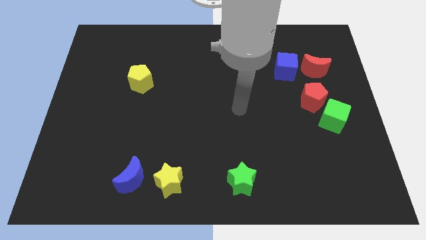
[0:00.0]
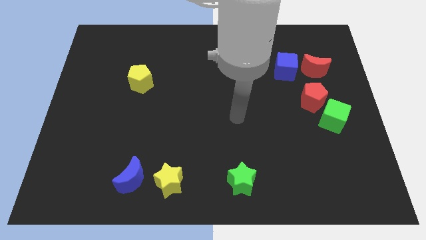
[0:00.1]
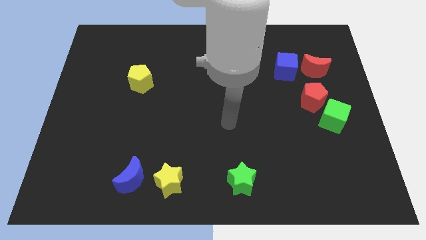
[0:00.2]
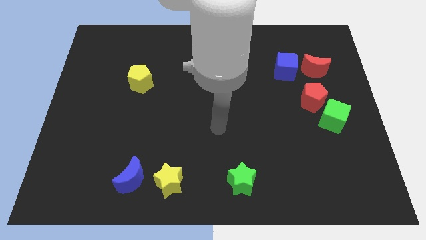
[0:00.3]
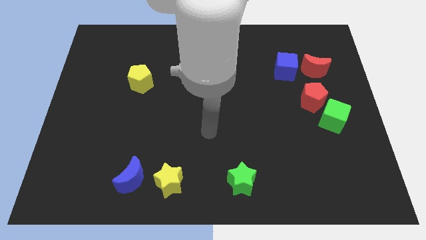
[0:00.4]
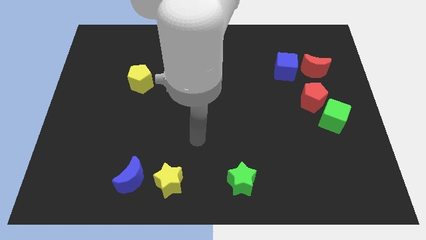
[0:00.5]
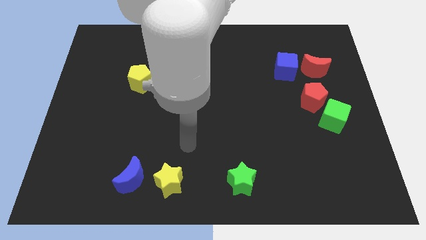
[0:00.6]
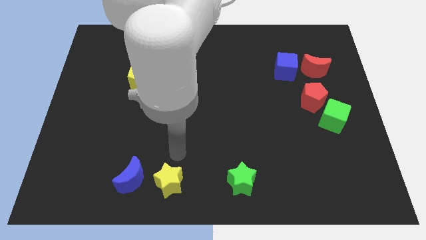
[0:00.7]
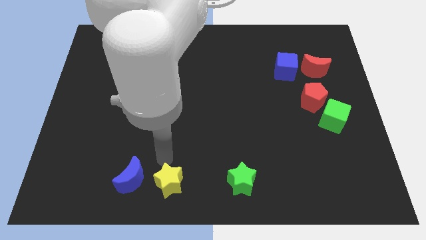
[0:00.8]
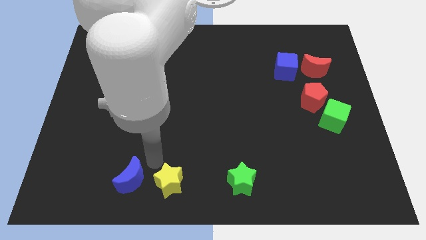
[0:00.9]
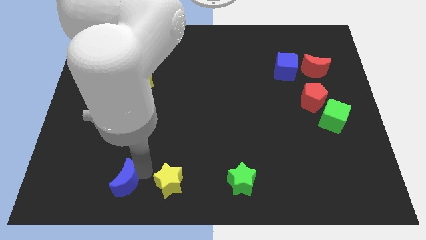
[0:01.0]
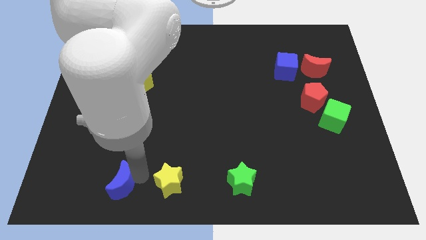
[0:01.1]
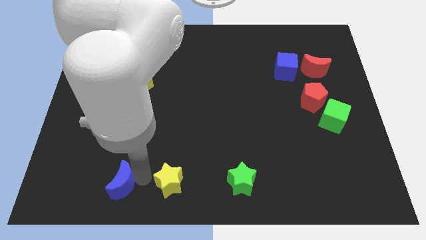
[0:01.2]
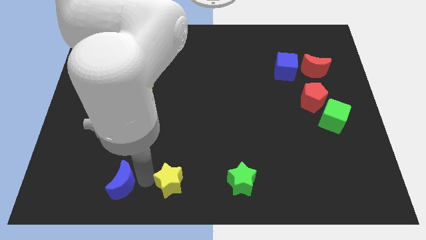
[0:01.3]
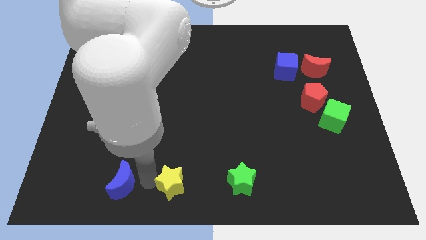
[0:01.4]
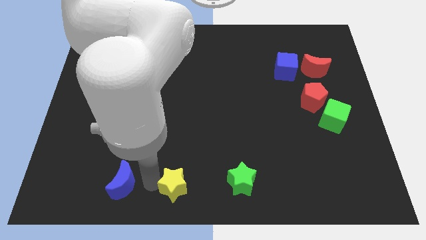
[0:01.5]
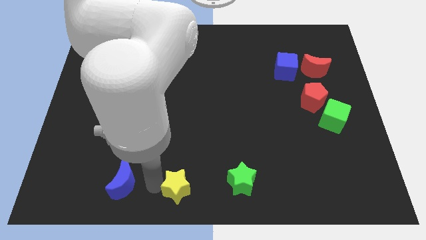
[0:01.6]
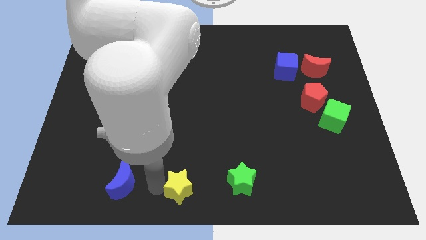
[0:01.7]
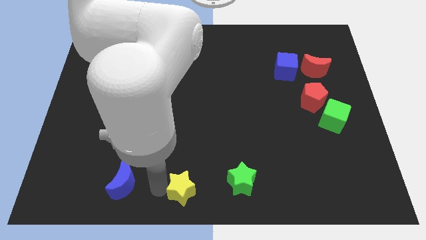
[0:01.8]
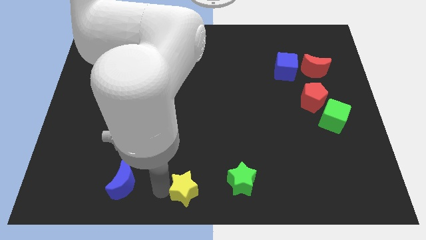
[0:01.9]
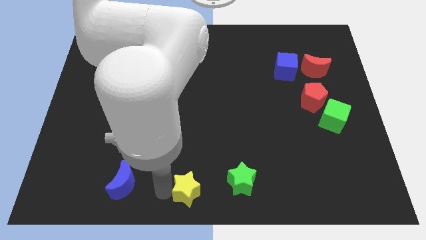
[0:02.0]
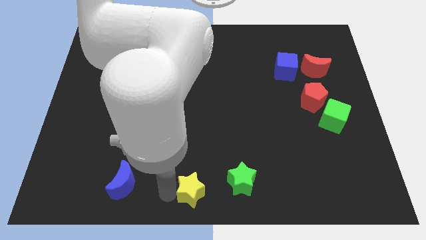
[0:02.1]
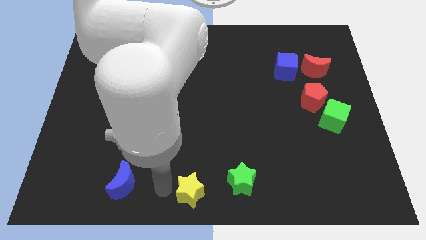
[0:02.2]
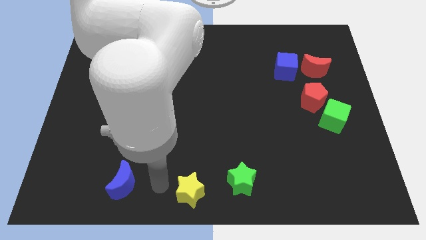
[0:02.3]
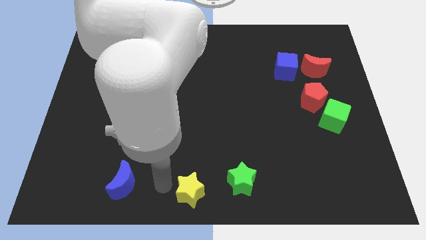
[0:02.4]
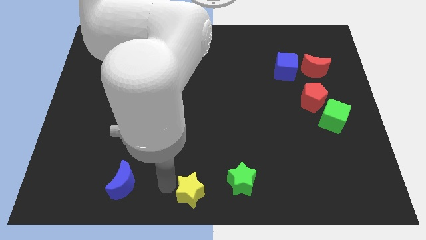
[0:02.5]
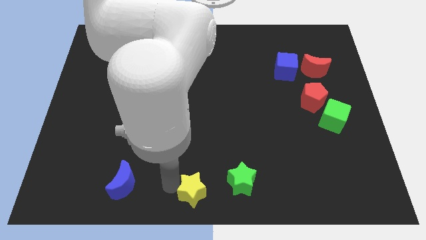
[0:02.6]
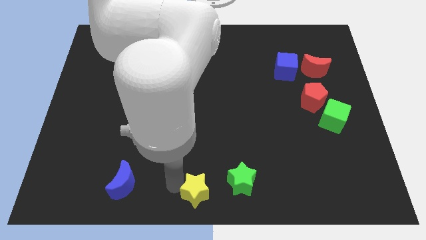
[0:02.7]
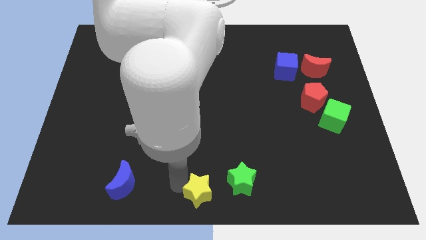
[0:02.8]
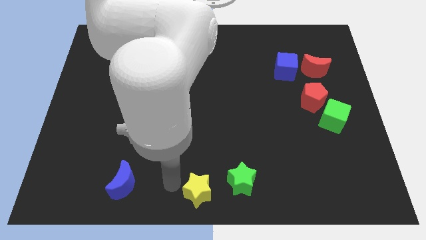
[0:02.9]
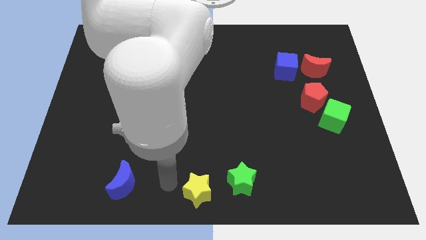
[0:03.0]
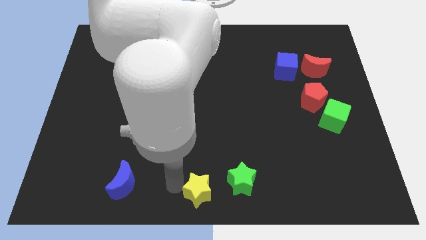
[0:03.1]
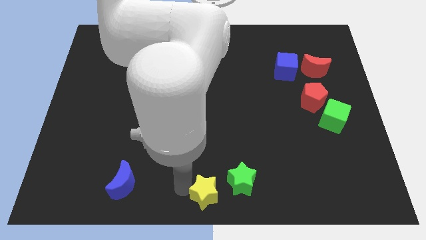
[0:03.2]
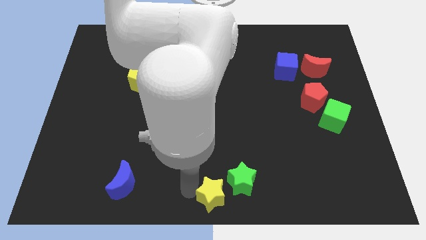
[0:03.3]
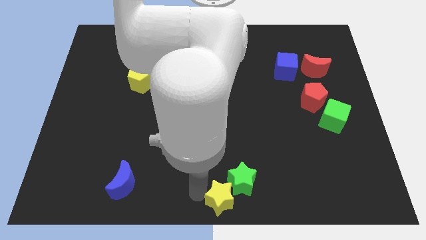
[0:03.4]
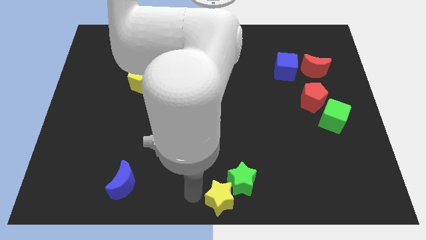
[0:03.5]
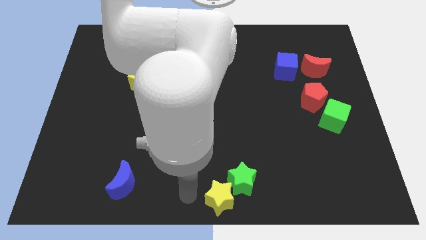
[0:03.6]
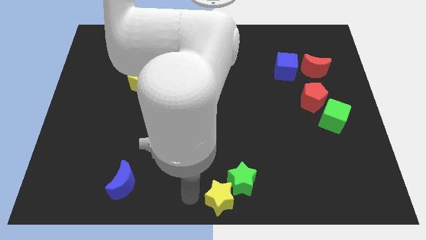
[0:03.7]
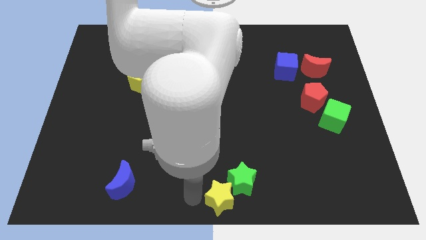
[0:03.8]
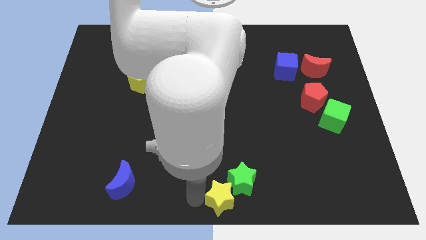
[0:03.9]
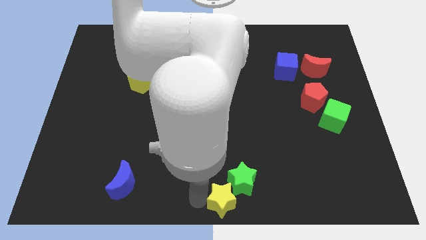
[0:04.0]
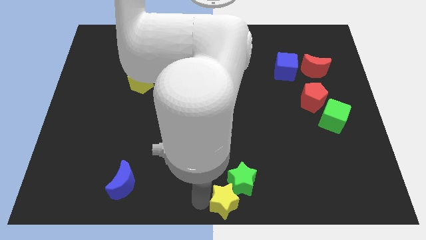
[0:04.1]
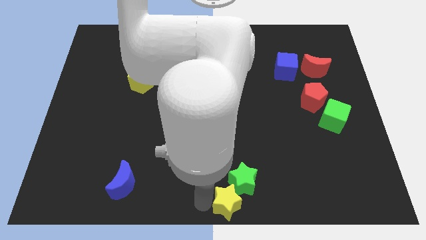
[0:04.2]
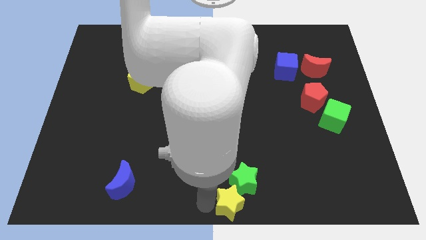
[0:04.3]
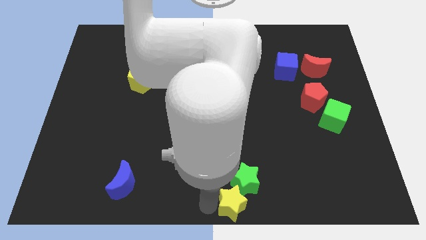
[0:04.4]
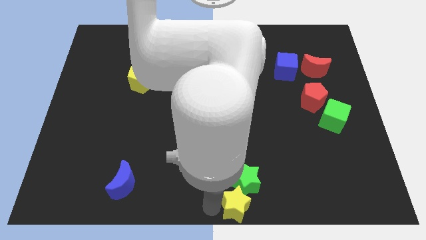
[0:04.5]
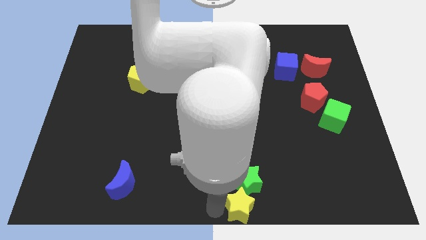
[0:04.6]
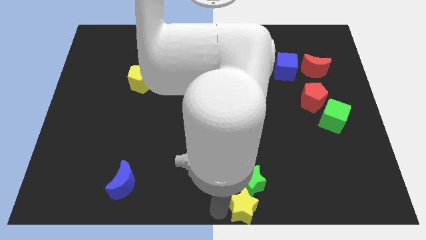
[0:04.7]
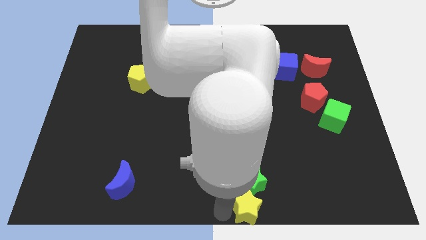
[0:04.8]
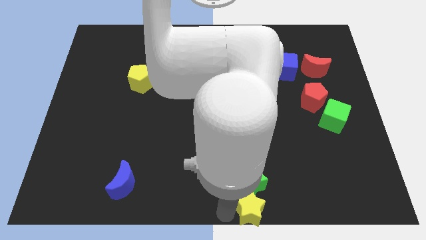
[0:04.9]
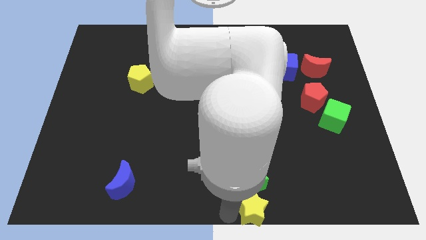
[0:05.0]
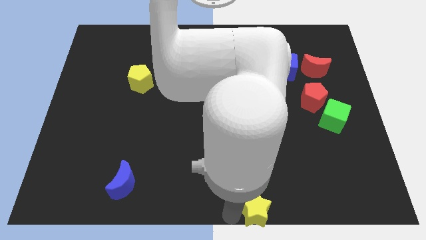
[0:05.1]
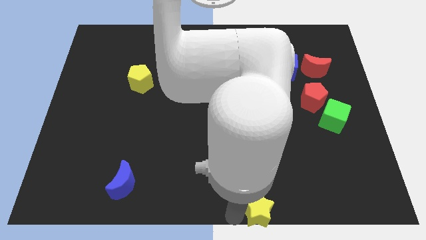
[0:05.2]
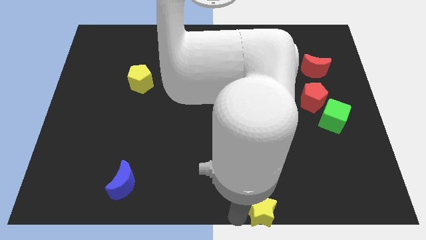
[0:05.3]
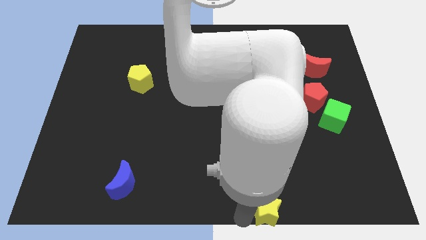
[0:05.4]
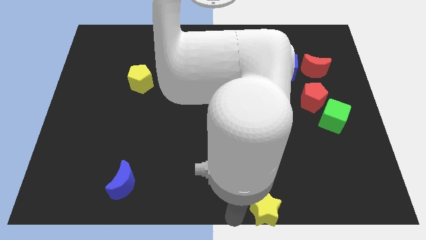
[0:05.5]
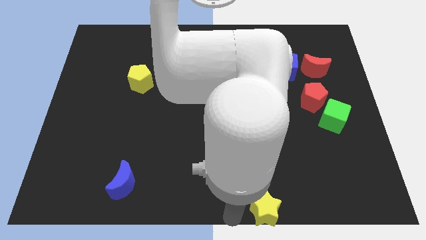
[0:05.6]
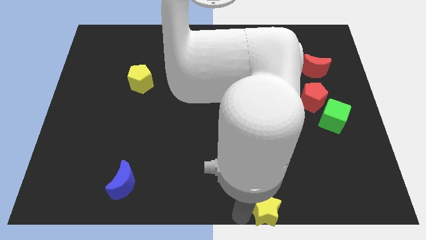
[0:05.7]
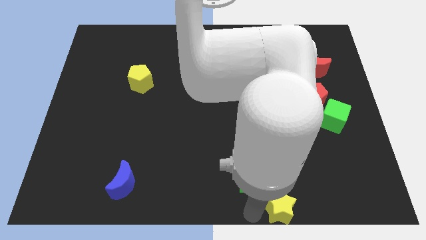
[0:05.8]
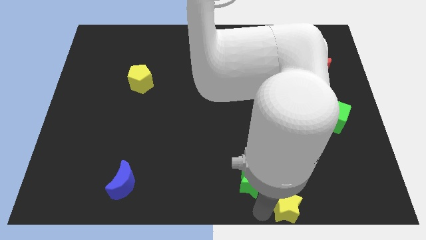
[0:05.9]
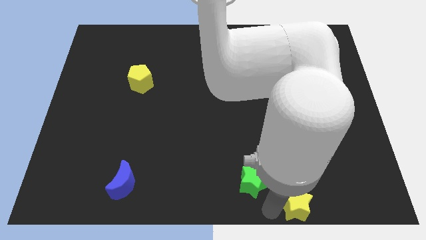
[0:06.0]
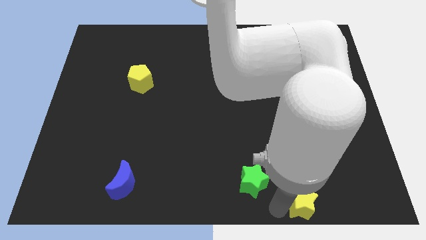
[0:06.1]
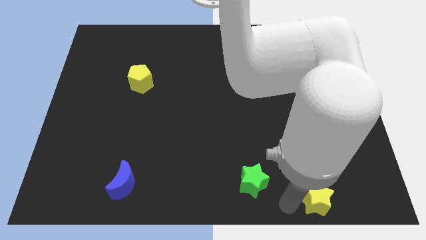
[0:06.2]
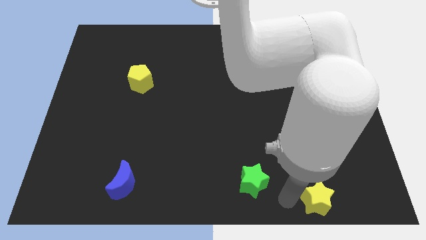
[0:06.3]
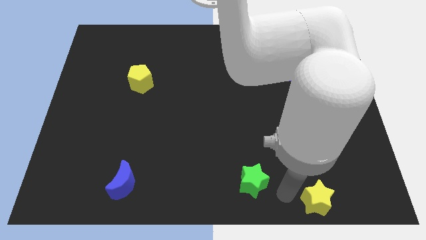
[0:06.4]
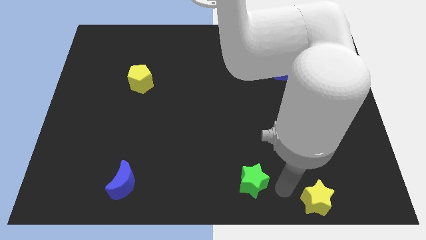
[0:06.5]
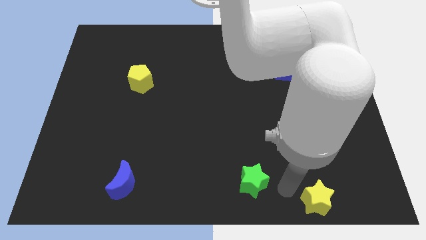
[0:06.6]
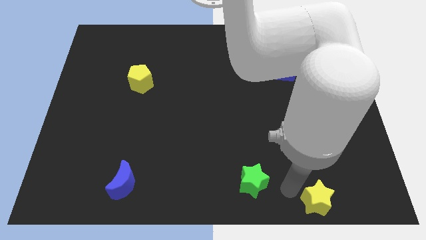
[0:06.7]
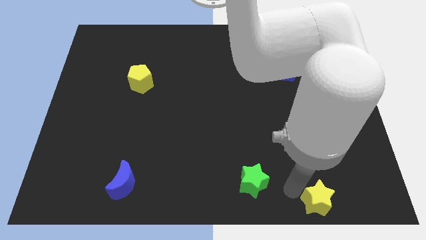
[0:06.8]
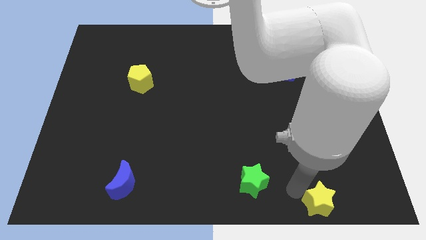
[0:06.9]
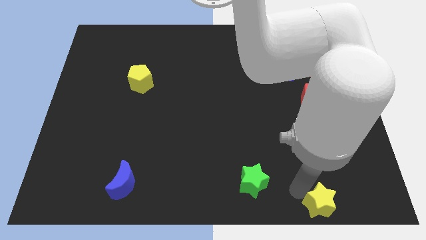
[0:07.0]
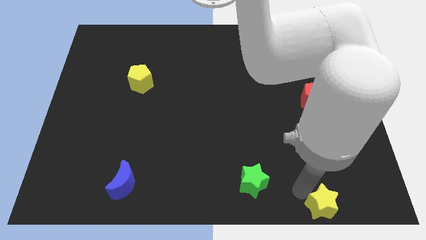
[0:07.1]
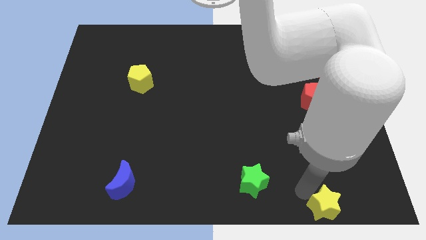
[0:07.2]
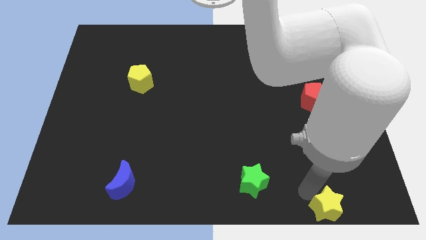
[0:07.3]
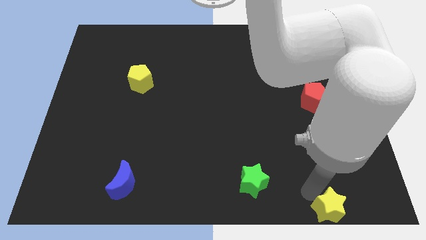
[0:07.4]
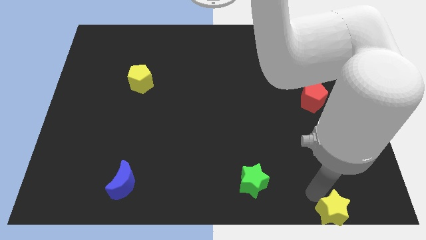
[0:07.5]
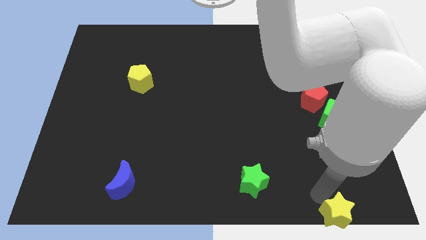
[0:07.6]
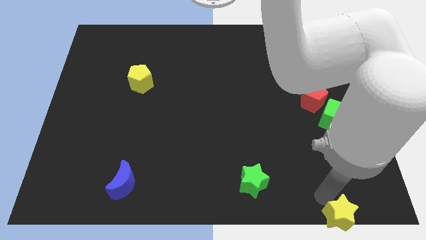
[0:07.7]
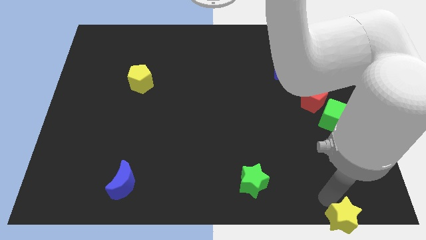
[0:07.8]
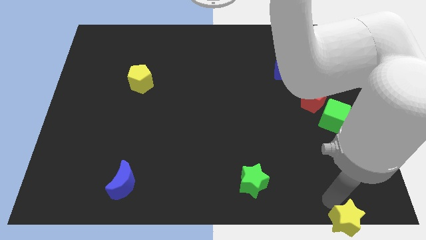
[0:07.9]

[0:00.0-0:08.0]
push the yellow star to the bottom right of the board

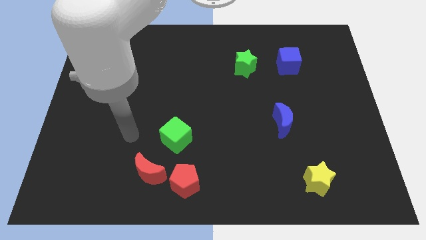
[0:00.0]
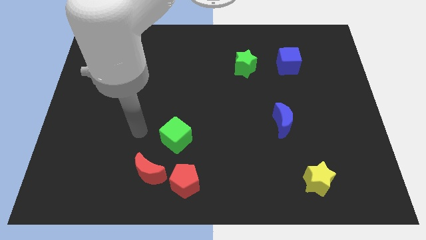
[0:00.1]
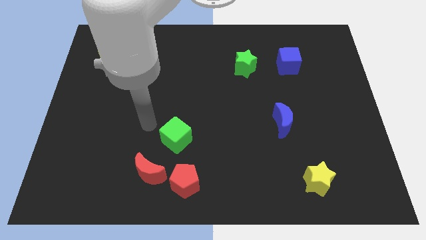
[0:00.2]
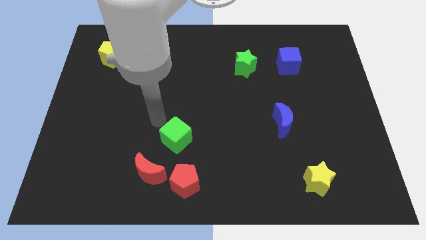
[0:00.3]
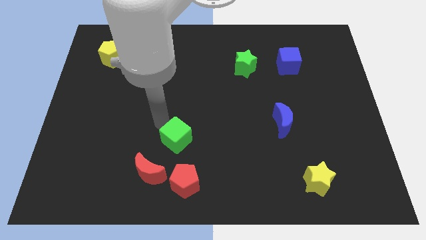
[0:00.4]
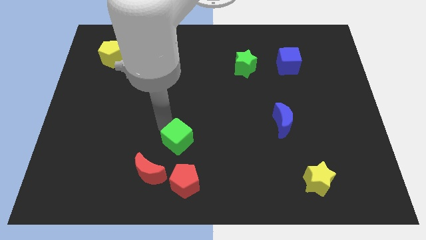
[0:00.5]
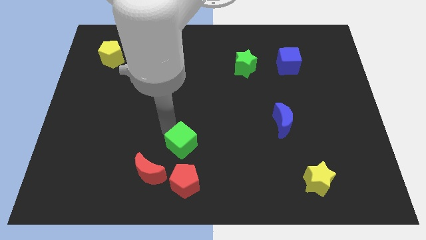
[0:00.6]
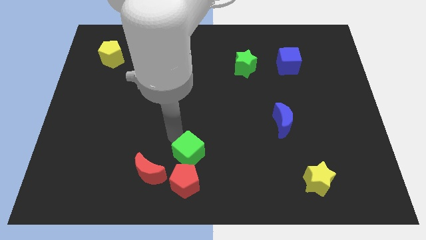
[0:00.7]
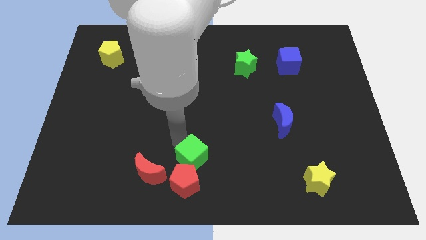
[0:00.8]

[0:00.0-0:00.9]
move the green cube to the bottom side
